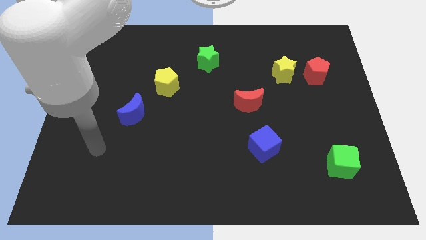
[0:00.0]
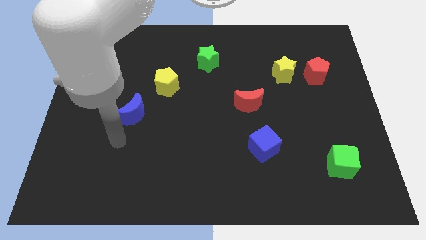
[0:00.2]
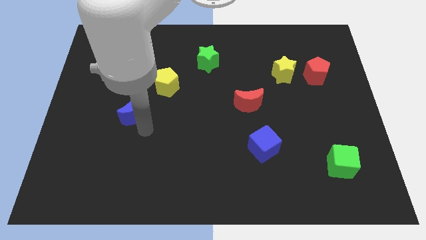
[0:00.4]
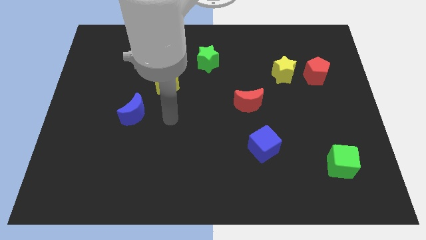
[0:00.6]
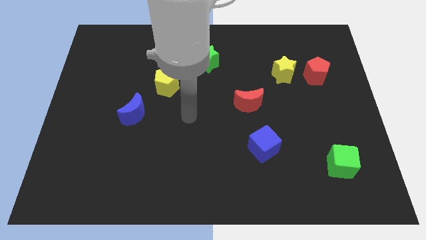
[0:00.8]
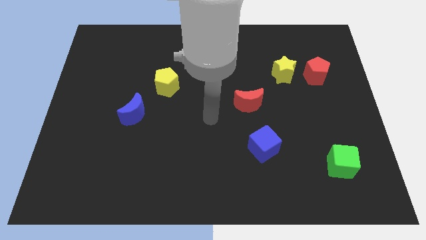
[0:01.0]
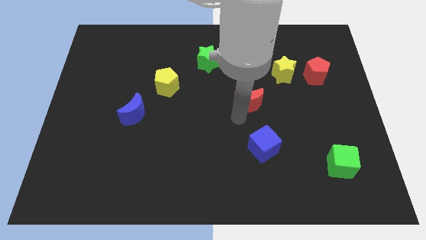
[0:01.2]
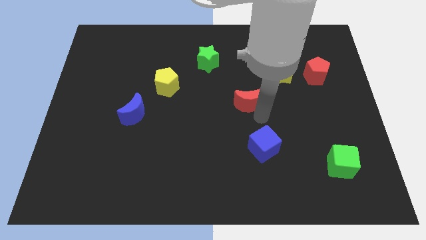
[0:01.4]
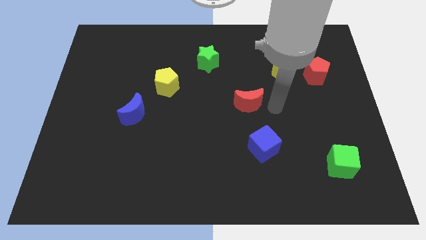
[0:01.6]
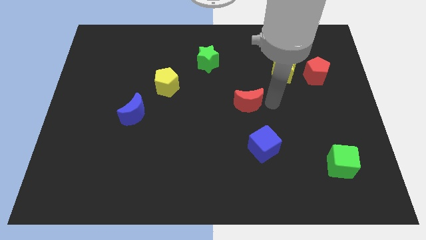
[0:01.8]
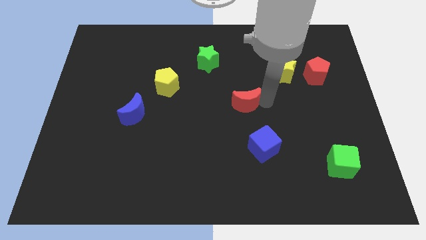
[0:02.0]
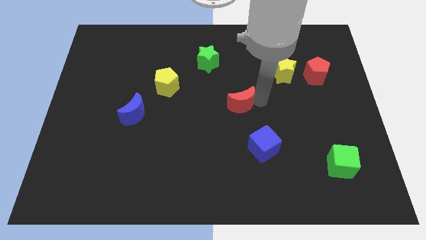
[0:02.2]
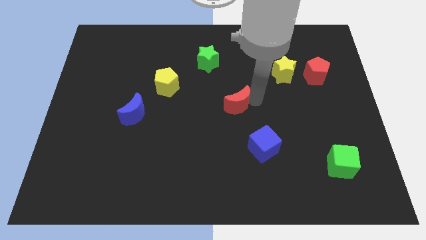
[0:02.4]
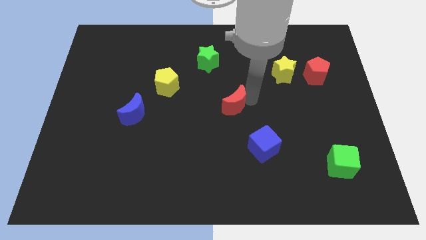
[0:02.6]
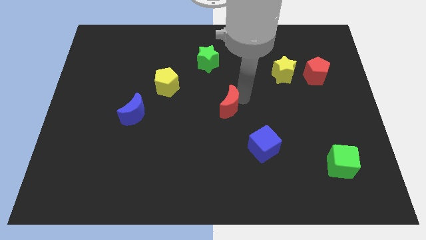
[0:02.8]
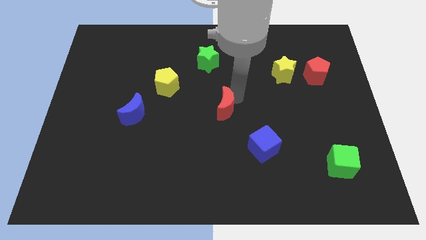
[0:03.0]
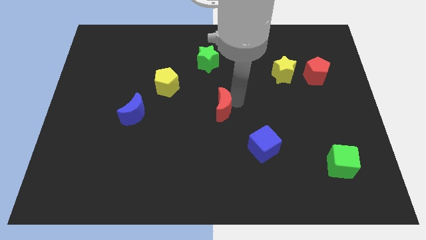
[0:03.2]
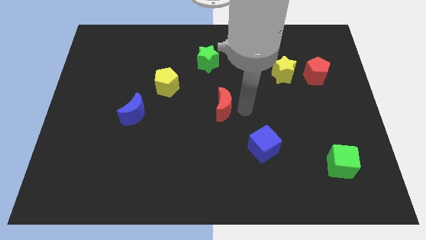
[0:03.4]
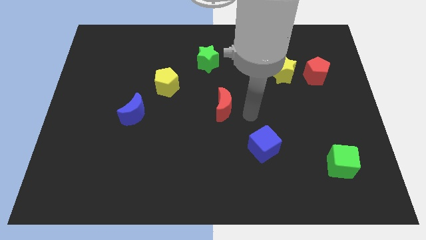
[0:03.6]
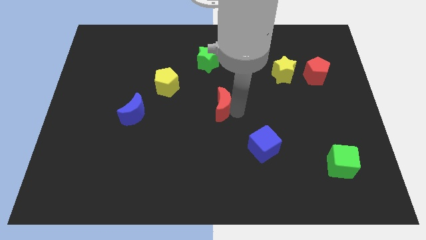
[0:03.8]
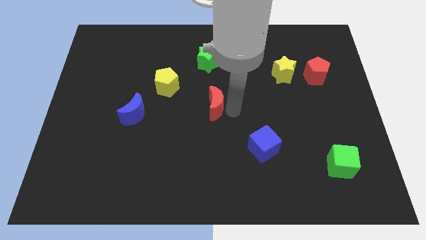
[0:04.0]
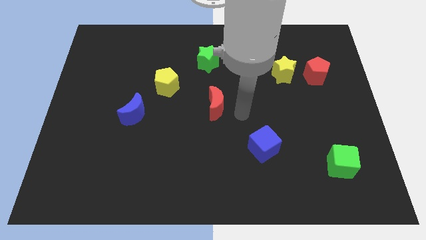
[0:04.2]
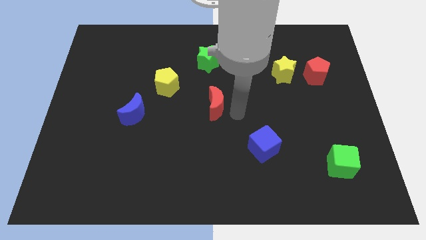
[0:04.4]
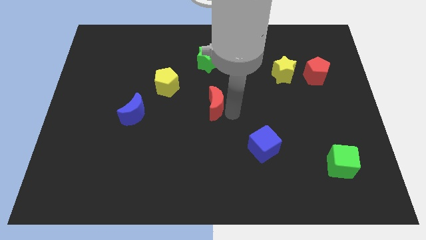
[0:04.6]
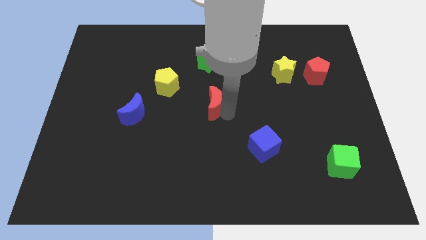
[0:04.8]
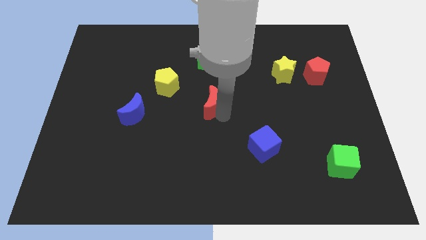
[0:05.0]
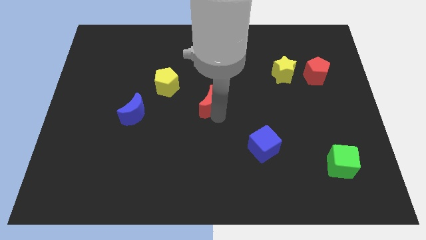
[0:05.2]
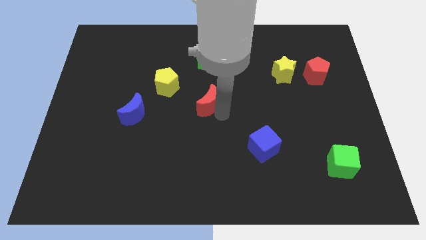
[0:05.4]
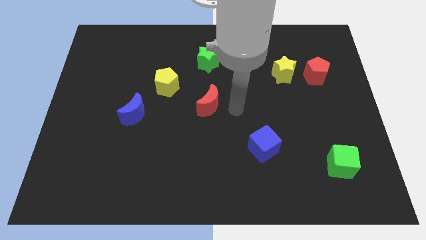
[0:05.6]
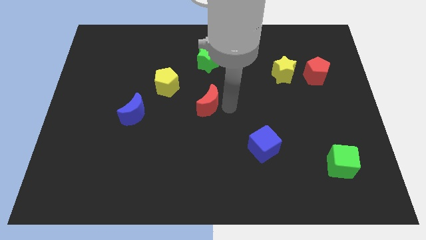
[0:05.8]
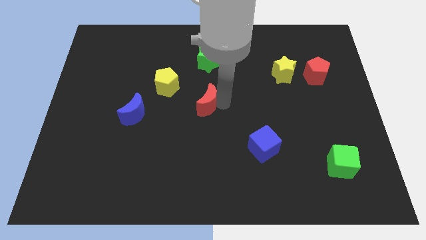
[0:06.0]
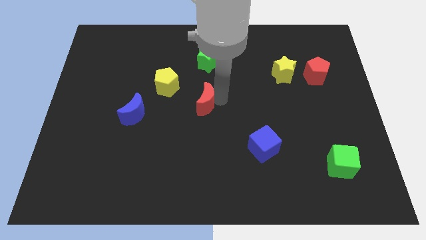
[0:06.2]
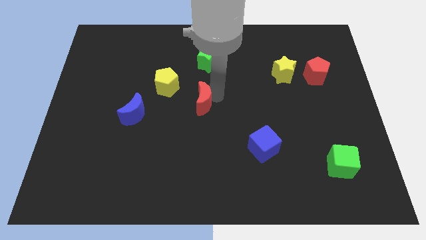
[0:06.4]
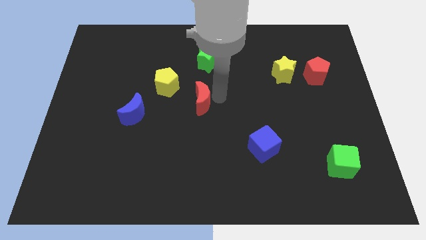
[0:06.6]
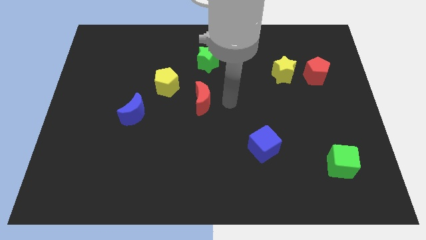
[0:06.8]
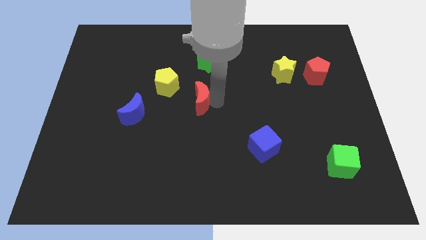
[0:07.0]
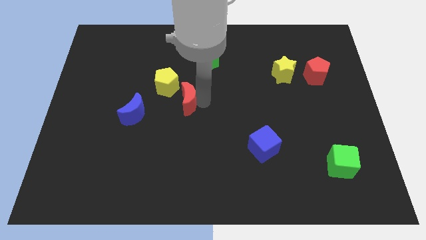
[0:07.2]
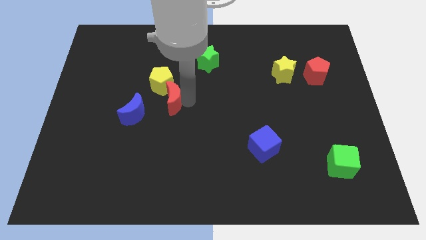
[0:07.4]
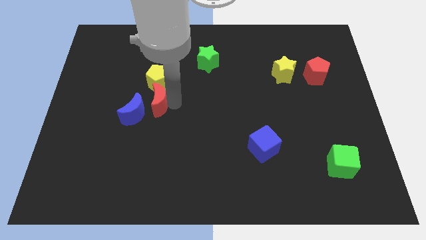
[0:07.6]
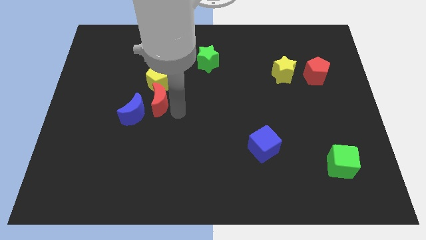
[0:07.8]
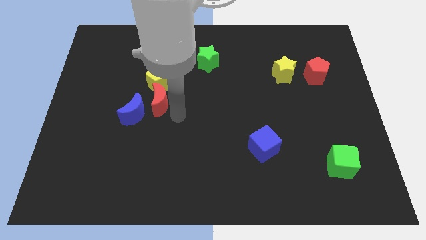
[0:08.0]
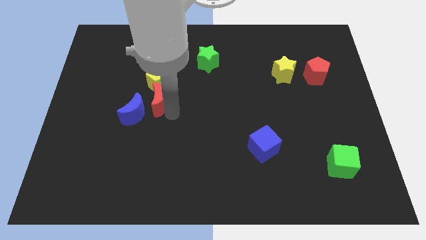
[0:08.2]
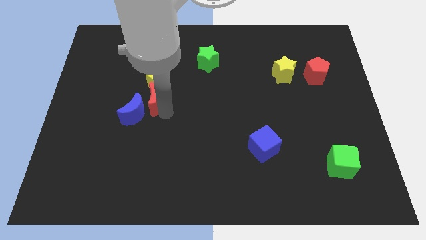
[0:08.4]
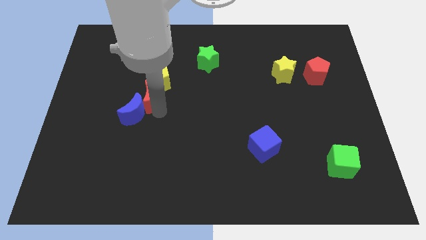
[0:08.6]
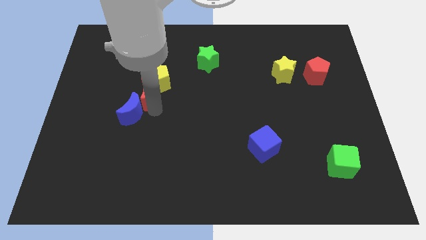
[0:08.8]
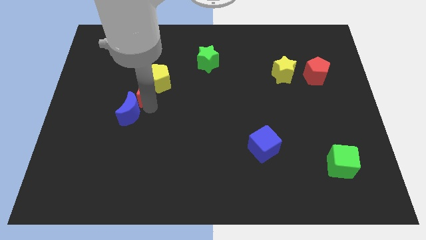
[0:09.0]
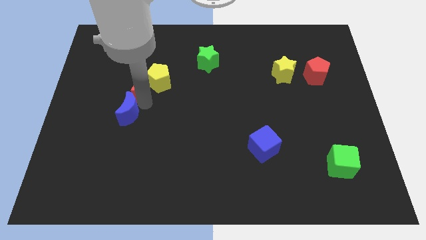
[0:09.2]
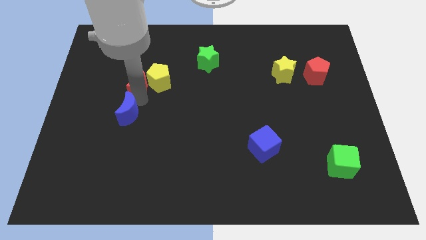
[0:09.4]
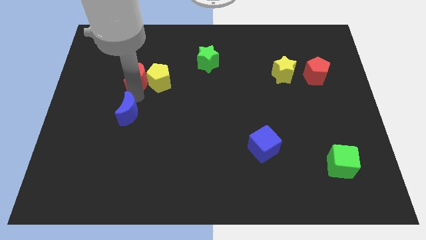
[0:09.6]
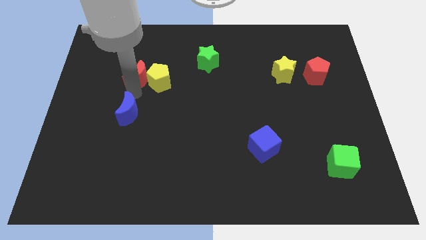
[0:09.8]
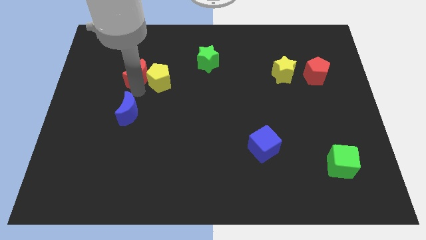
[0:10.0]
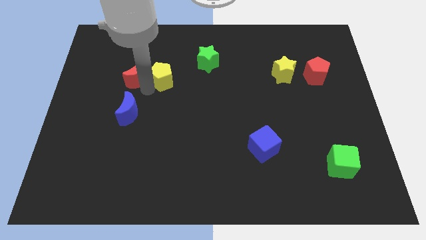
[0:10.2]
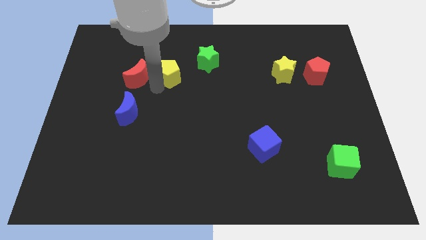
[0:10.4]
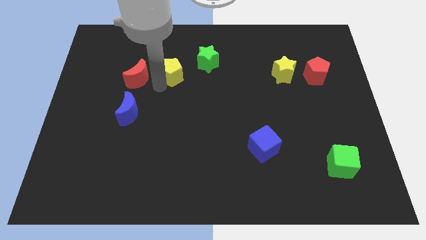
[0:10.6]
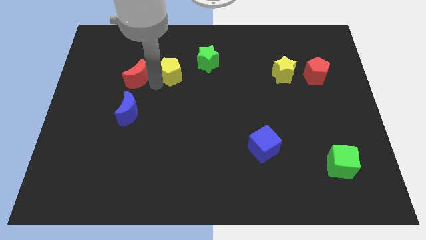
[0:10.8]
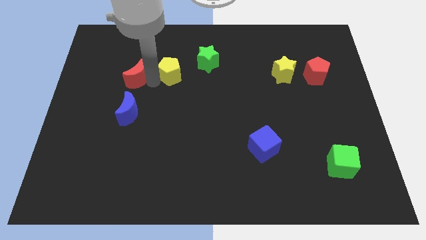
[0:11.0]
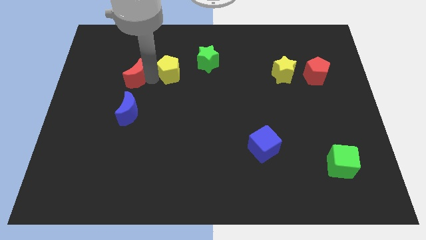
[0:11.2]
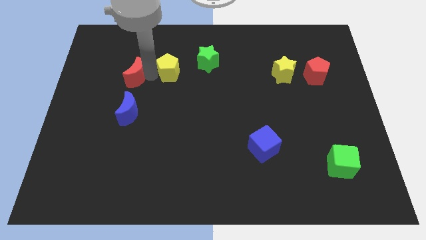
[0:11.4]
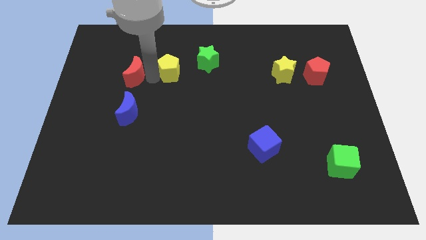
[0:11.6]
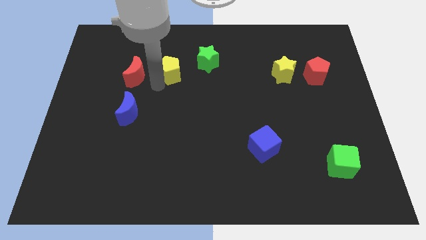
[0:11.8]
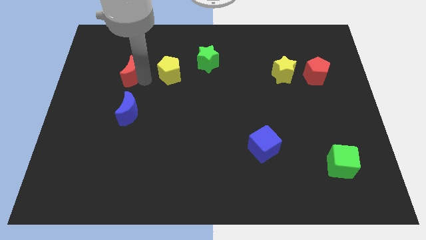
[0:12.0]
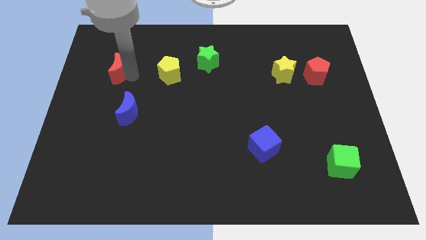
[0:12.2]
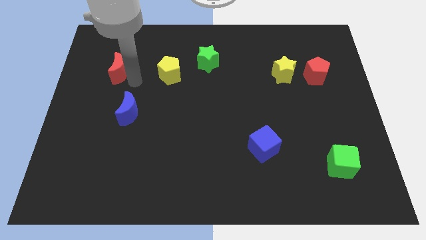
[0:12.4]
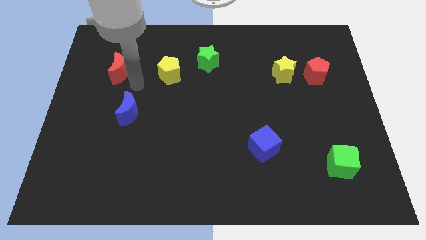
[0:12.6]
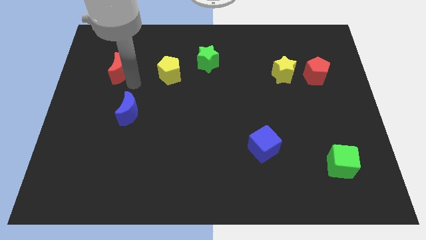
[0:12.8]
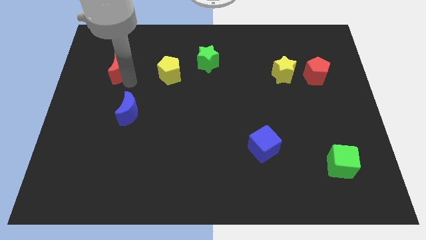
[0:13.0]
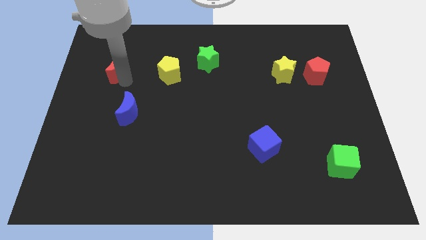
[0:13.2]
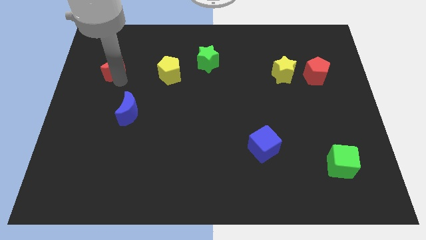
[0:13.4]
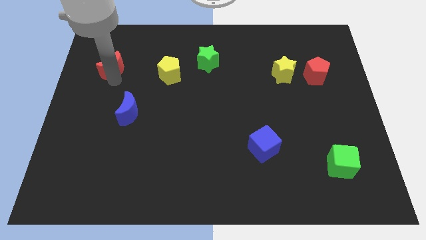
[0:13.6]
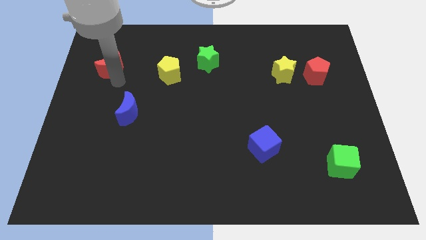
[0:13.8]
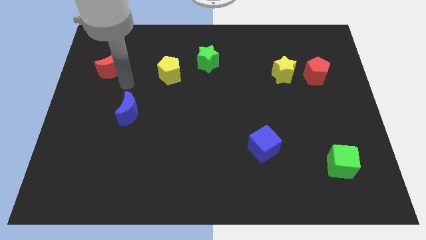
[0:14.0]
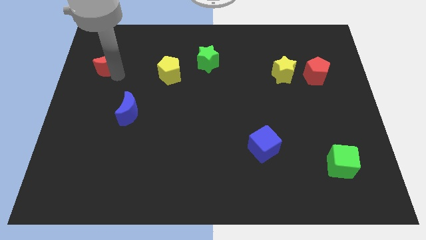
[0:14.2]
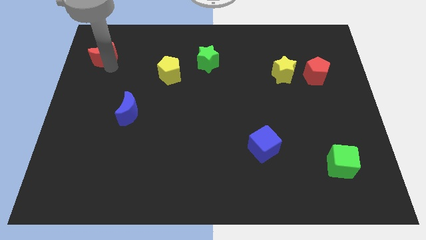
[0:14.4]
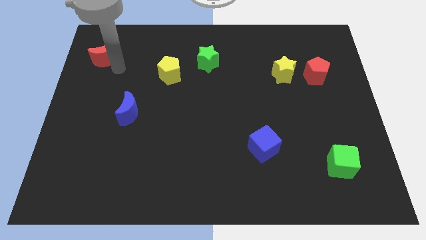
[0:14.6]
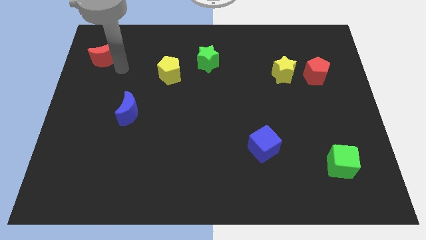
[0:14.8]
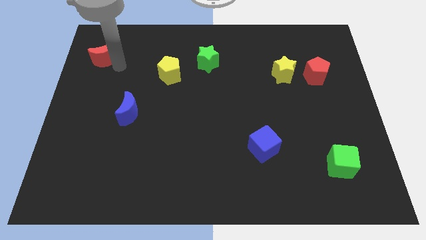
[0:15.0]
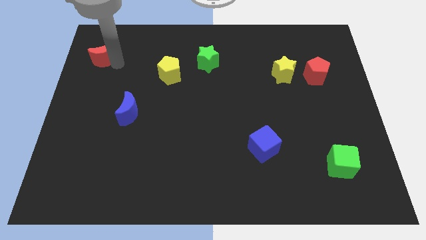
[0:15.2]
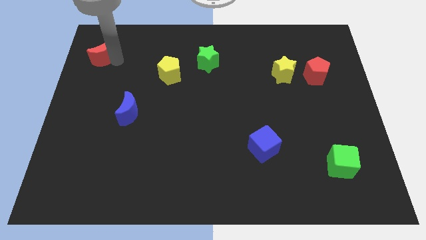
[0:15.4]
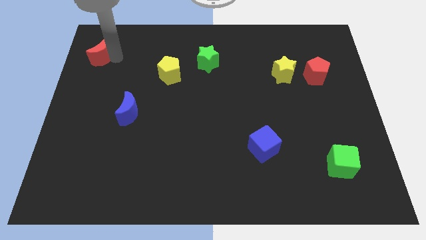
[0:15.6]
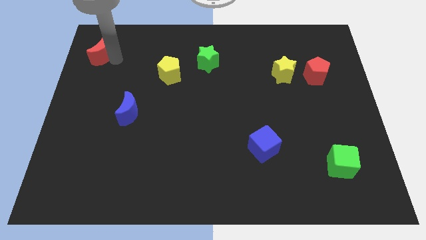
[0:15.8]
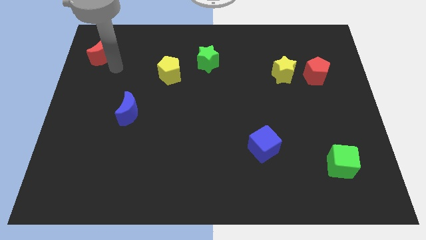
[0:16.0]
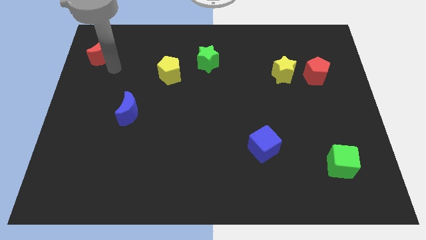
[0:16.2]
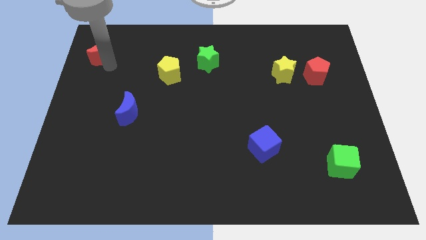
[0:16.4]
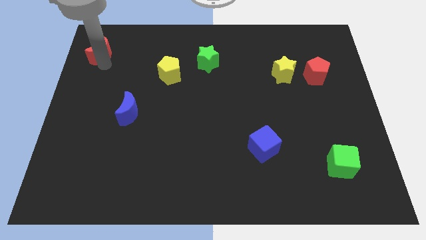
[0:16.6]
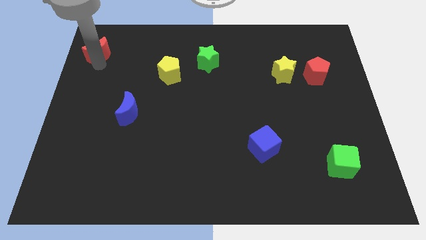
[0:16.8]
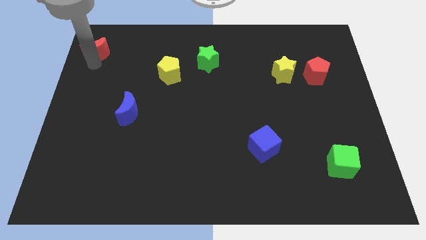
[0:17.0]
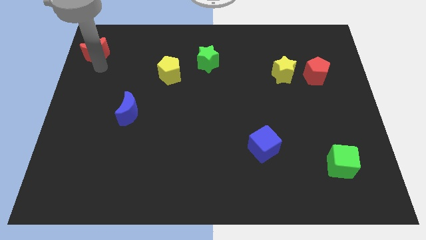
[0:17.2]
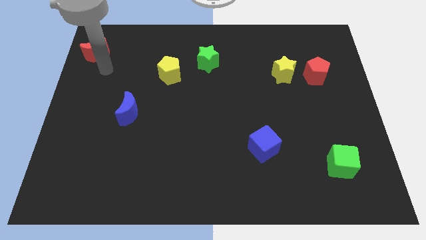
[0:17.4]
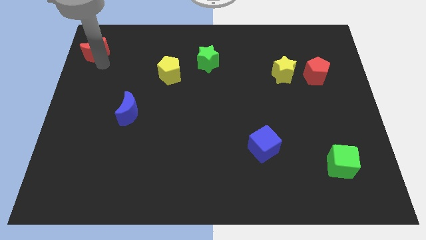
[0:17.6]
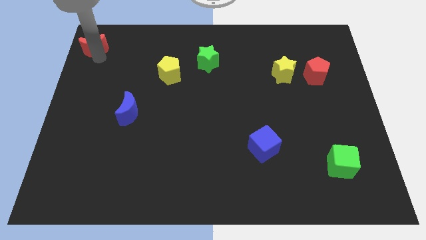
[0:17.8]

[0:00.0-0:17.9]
put the red moon to the top left corner
